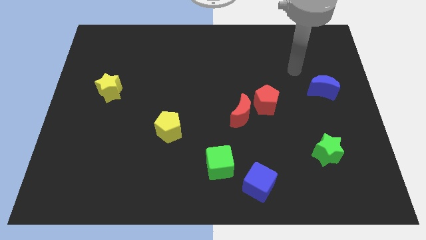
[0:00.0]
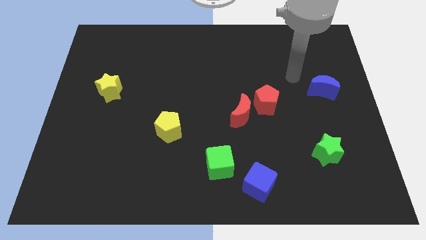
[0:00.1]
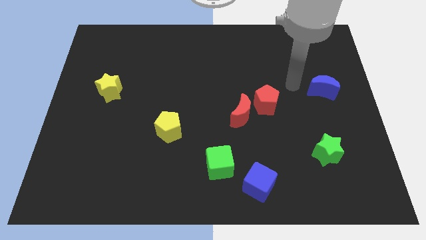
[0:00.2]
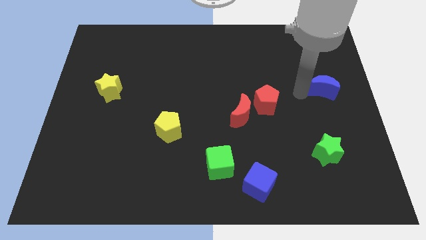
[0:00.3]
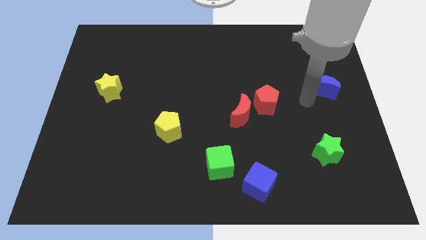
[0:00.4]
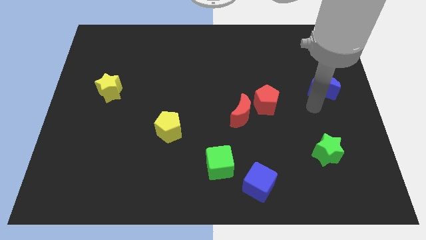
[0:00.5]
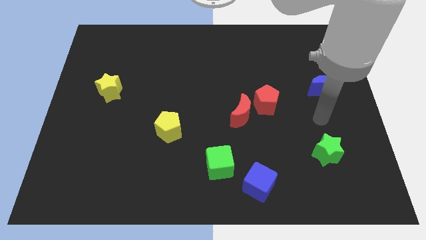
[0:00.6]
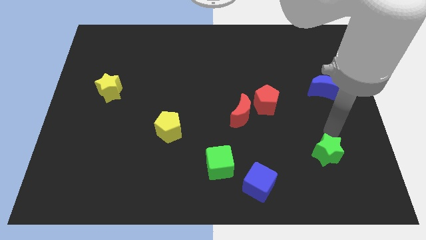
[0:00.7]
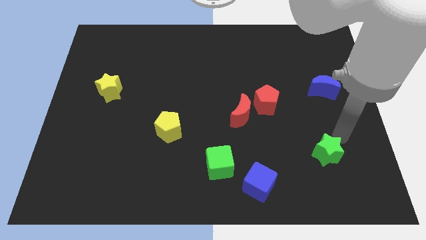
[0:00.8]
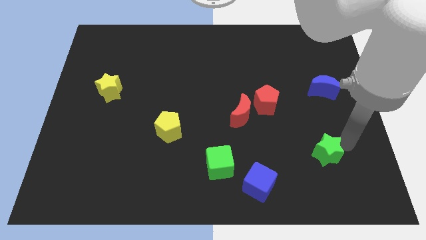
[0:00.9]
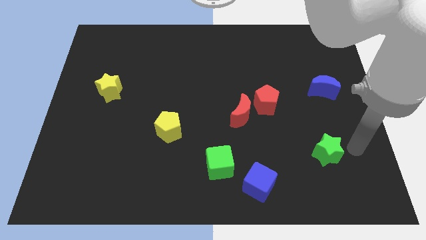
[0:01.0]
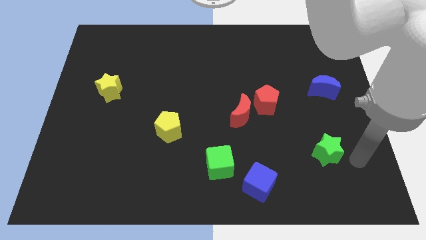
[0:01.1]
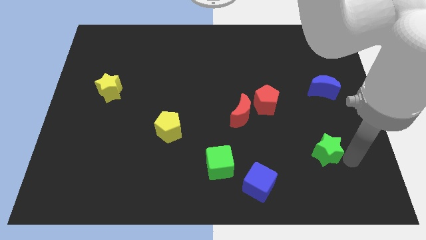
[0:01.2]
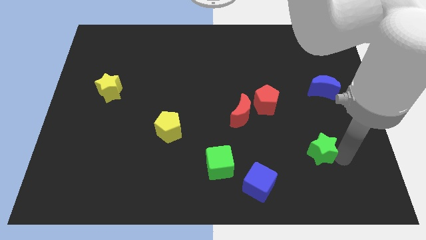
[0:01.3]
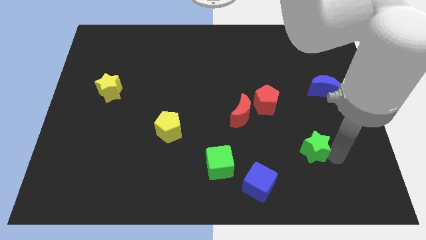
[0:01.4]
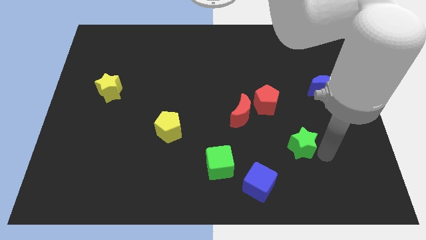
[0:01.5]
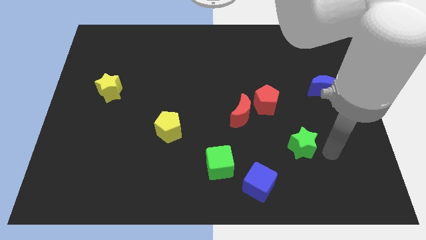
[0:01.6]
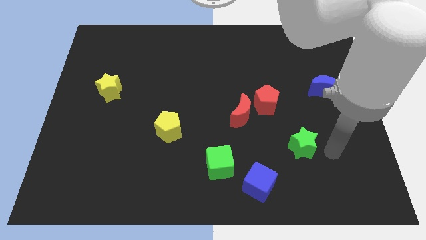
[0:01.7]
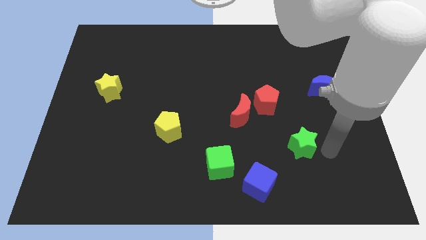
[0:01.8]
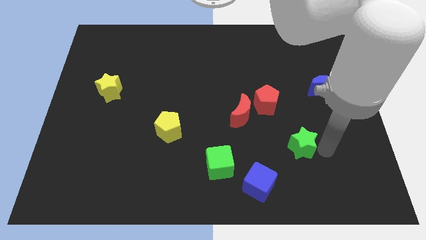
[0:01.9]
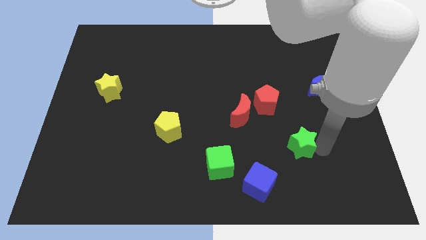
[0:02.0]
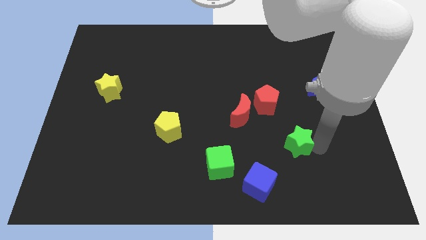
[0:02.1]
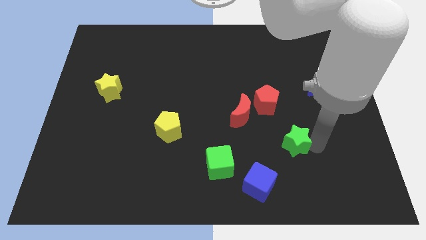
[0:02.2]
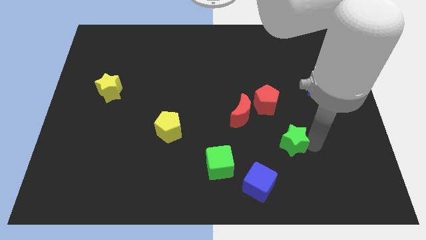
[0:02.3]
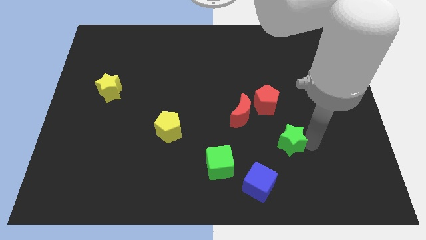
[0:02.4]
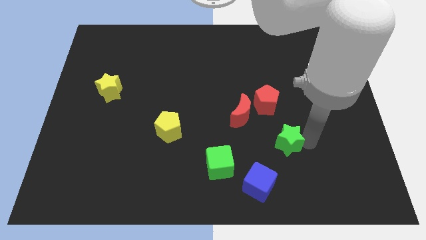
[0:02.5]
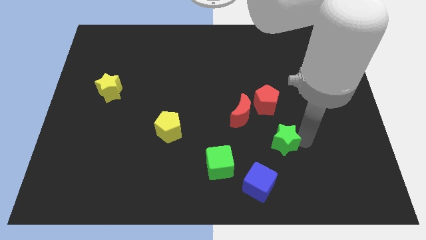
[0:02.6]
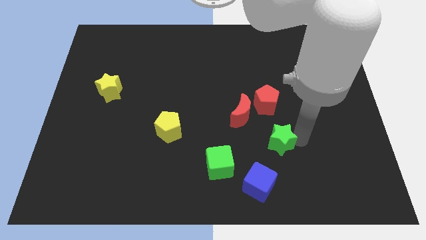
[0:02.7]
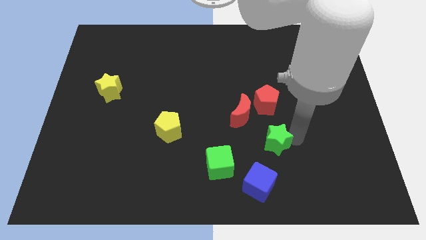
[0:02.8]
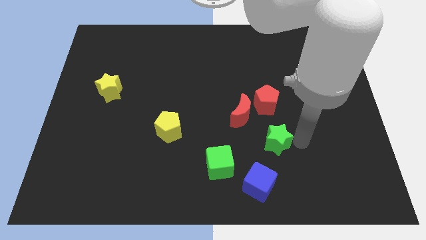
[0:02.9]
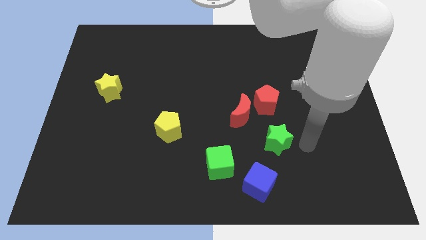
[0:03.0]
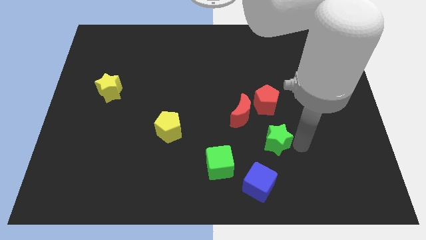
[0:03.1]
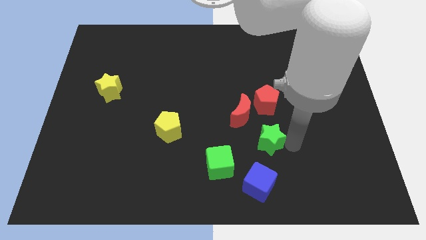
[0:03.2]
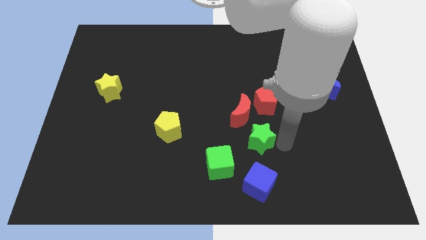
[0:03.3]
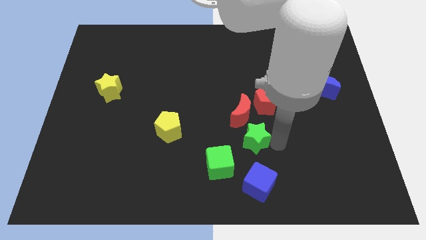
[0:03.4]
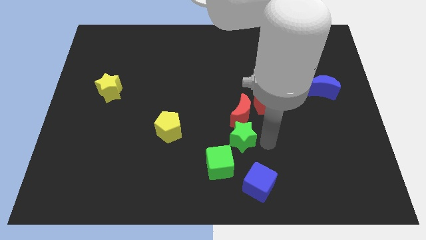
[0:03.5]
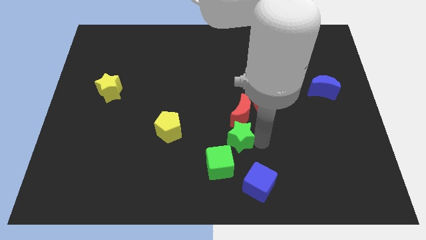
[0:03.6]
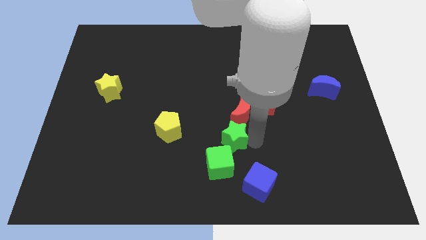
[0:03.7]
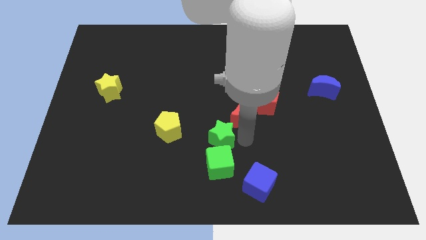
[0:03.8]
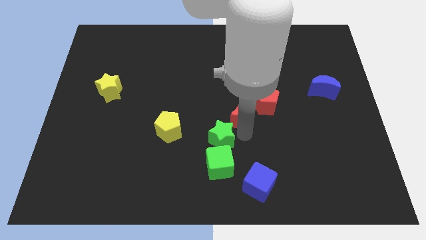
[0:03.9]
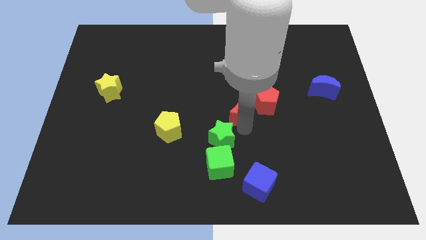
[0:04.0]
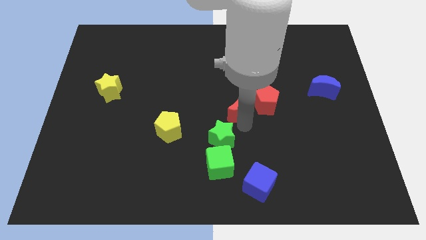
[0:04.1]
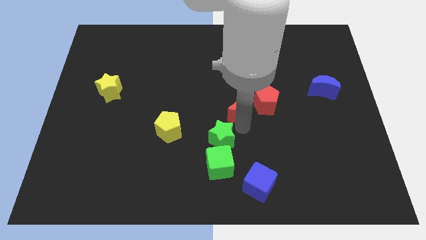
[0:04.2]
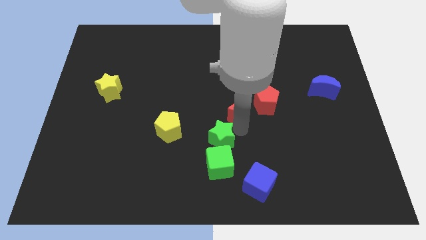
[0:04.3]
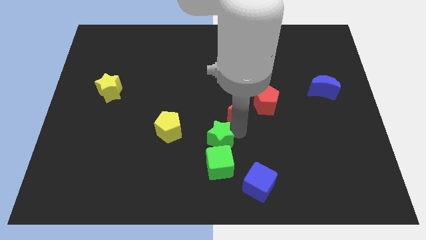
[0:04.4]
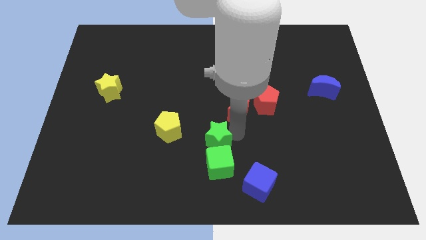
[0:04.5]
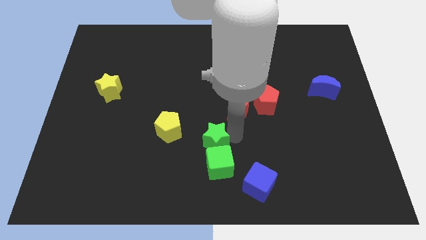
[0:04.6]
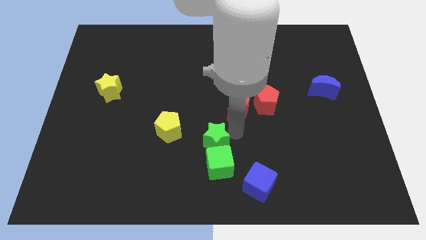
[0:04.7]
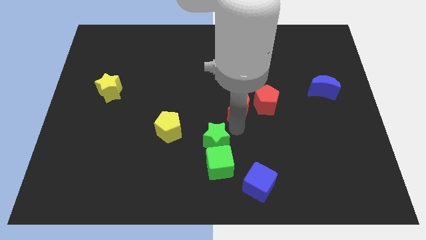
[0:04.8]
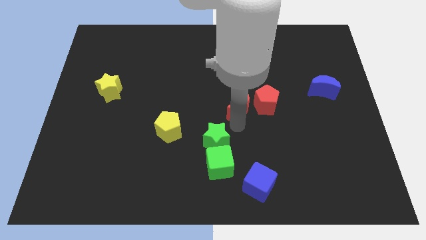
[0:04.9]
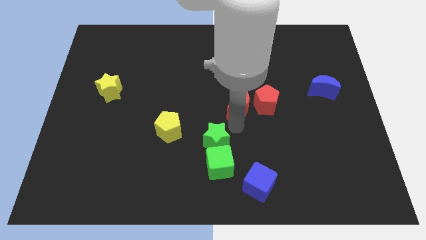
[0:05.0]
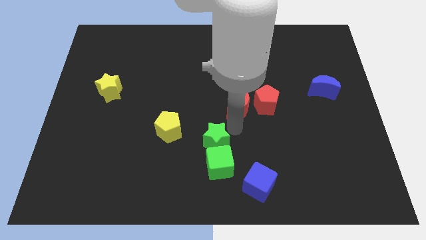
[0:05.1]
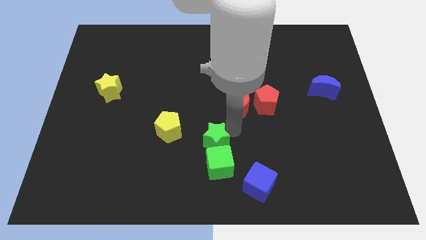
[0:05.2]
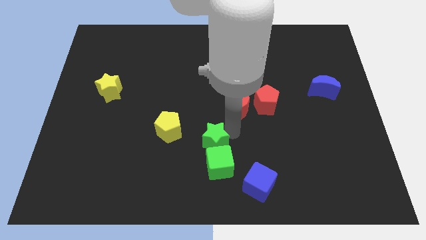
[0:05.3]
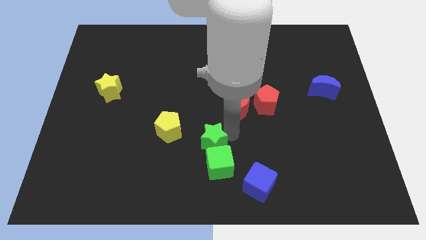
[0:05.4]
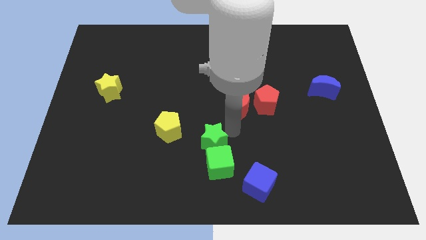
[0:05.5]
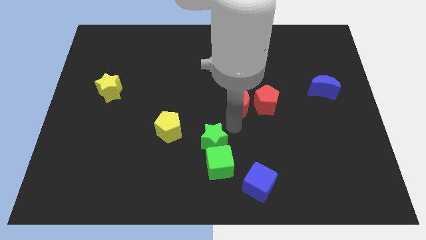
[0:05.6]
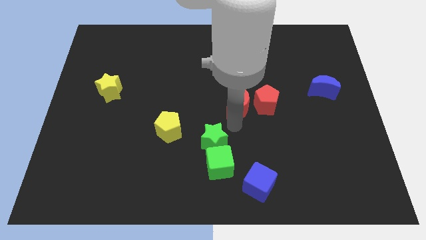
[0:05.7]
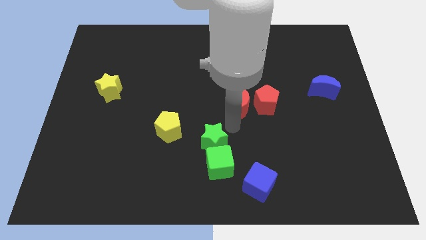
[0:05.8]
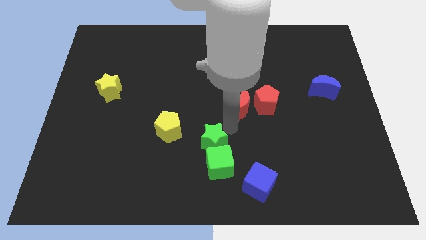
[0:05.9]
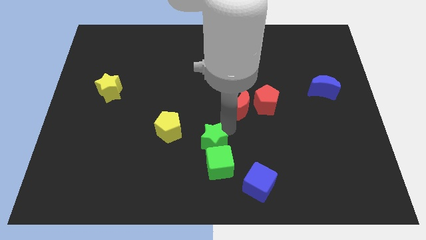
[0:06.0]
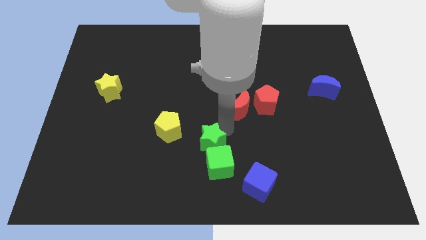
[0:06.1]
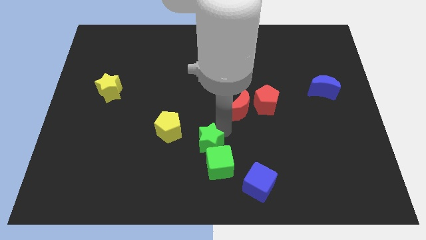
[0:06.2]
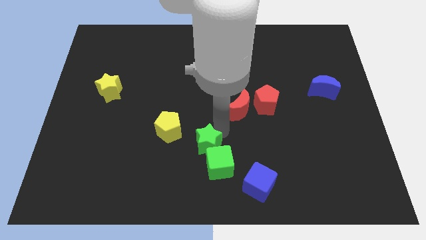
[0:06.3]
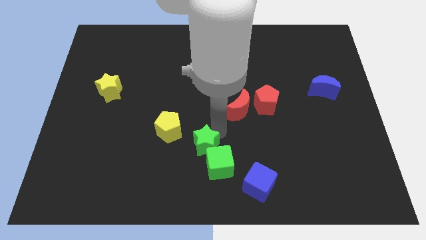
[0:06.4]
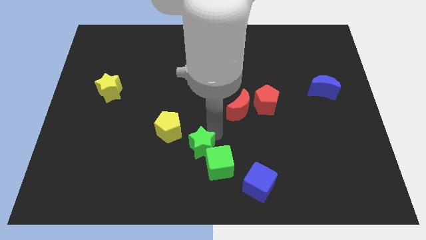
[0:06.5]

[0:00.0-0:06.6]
move the green star to the left side of the green cube
